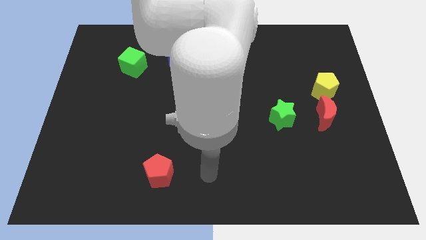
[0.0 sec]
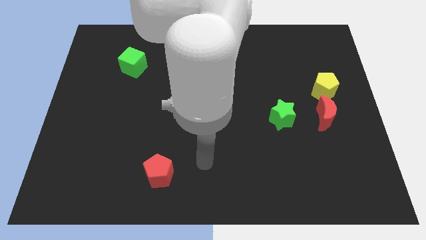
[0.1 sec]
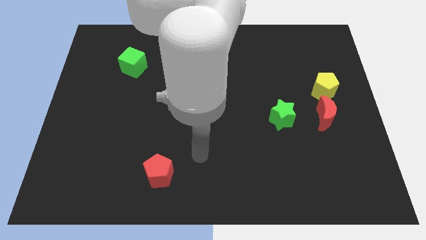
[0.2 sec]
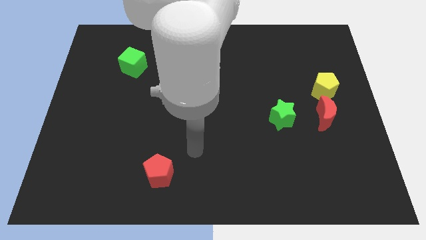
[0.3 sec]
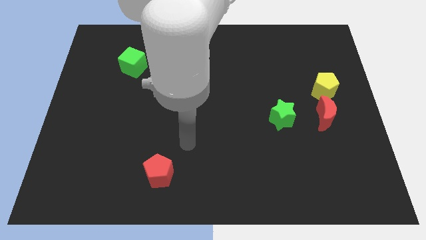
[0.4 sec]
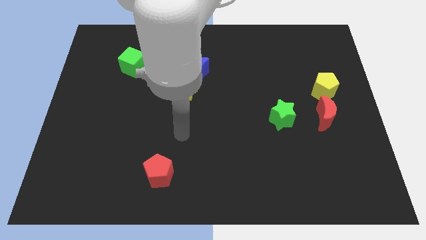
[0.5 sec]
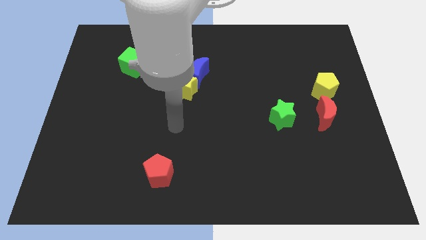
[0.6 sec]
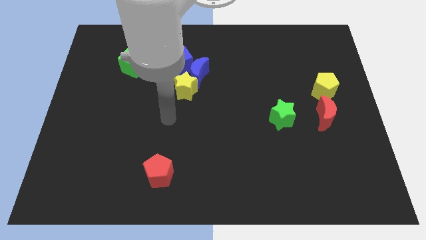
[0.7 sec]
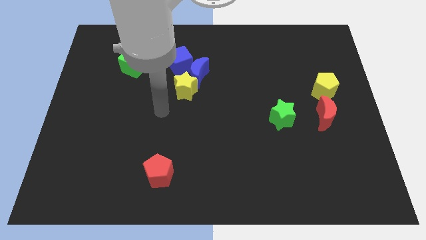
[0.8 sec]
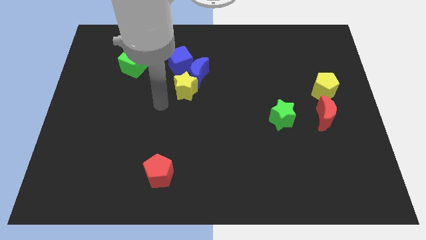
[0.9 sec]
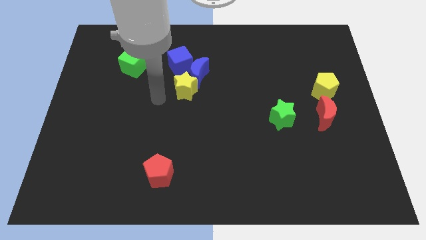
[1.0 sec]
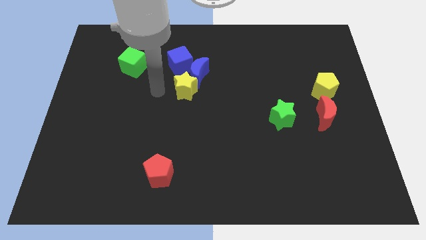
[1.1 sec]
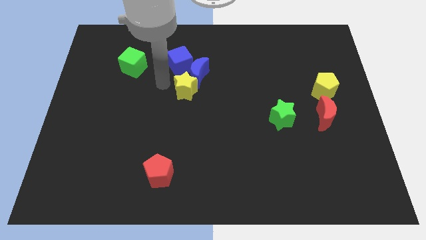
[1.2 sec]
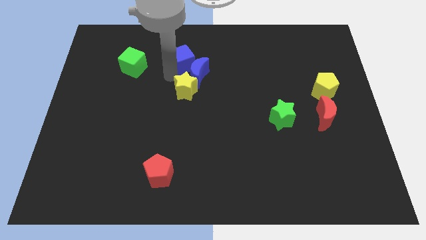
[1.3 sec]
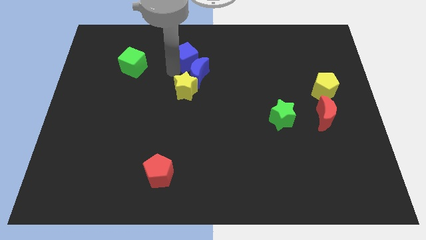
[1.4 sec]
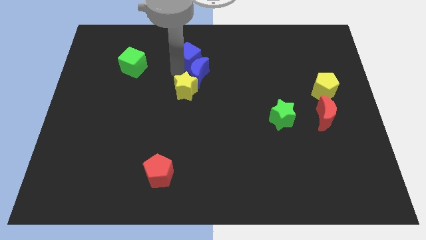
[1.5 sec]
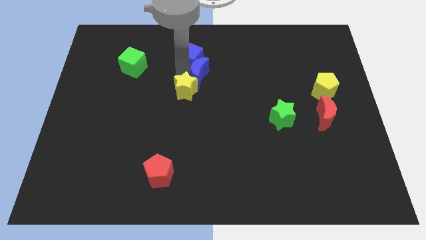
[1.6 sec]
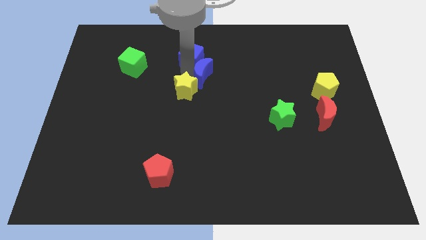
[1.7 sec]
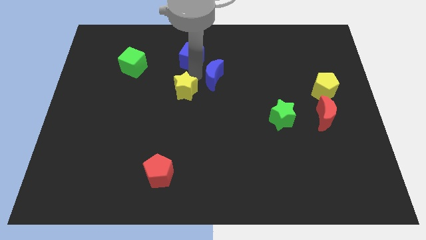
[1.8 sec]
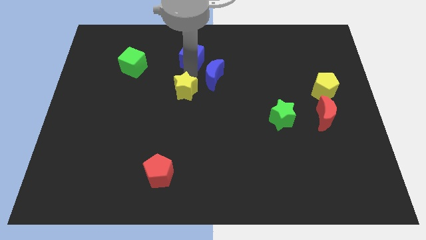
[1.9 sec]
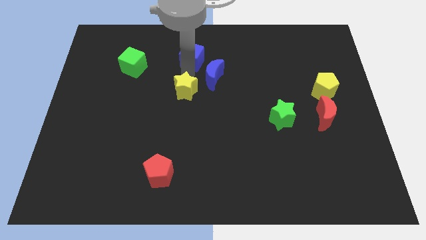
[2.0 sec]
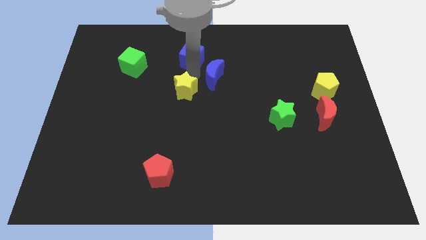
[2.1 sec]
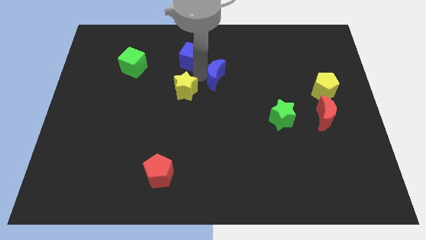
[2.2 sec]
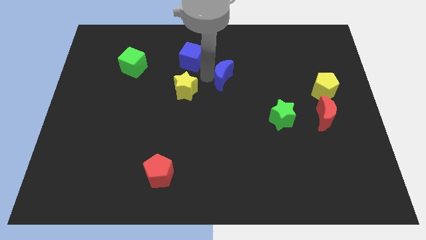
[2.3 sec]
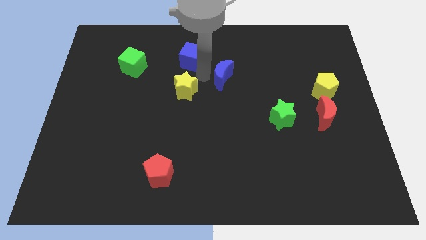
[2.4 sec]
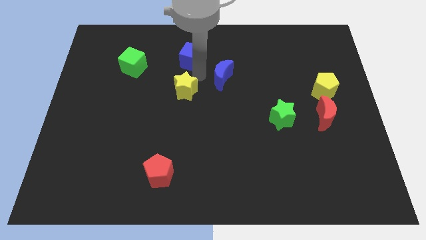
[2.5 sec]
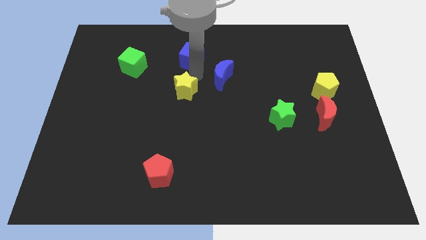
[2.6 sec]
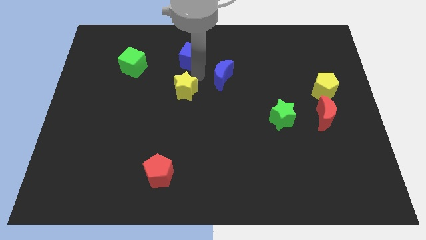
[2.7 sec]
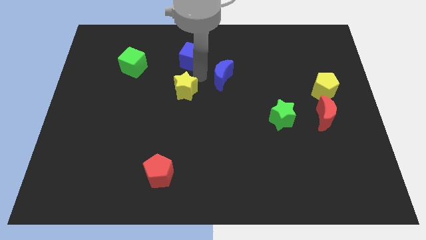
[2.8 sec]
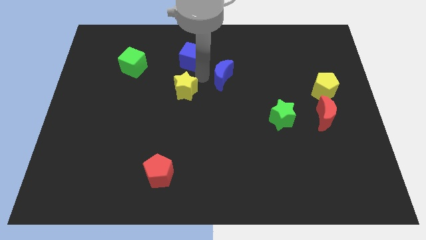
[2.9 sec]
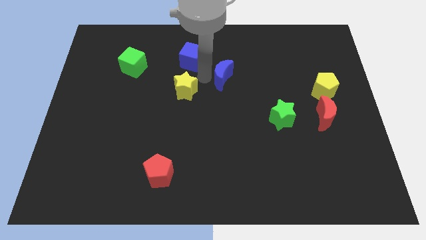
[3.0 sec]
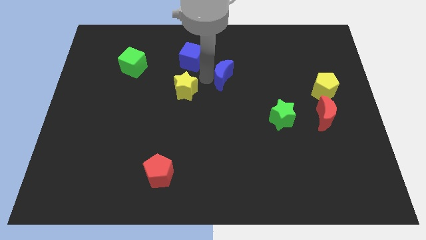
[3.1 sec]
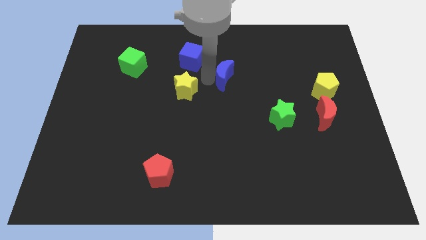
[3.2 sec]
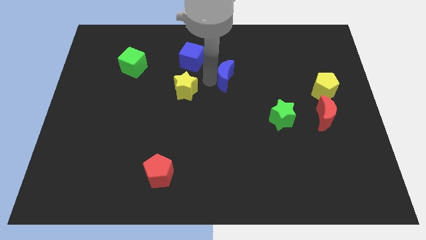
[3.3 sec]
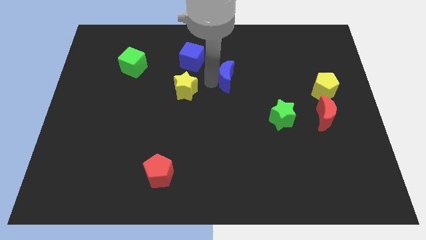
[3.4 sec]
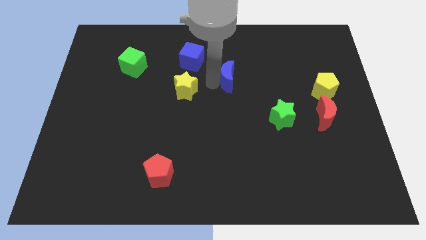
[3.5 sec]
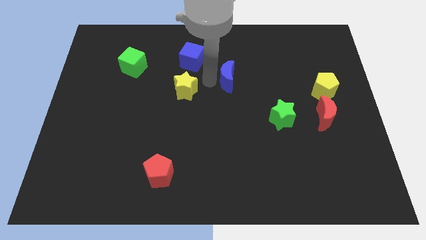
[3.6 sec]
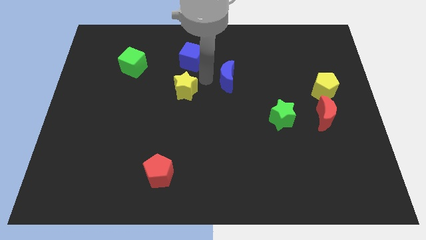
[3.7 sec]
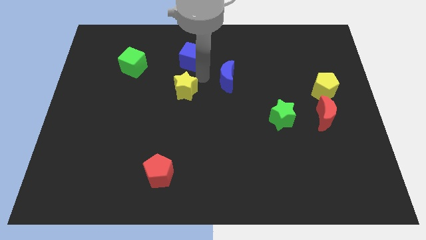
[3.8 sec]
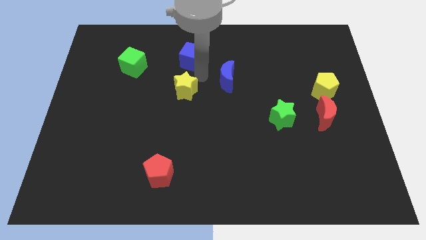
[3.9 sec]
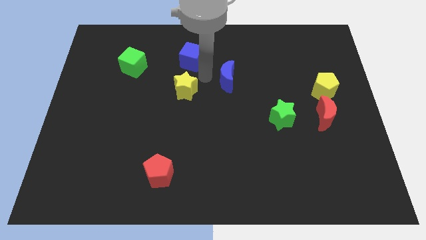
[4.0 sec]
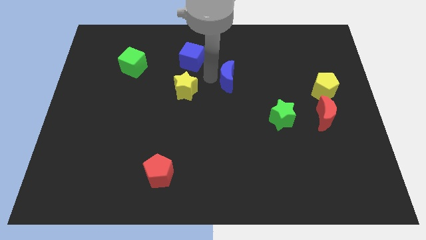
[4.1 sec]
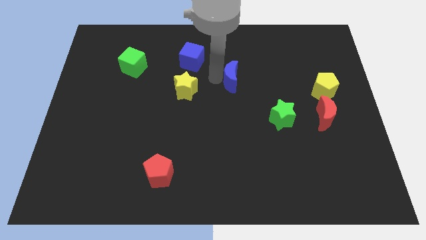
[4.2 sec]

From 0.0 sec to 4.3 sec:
move the blue moon away from the yellow star and blue cube

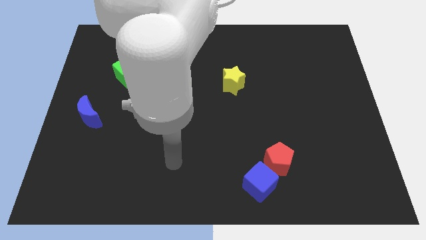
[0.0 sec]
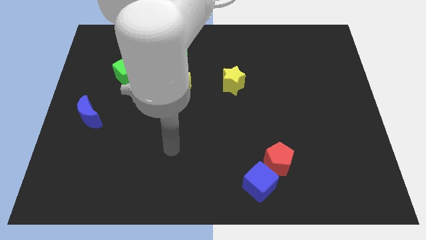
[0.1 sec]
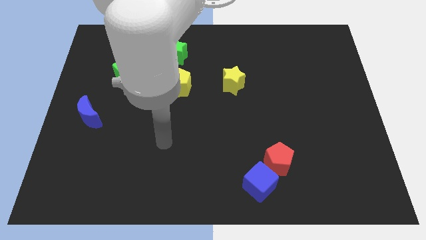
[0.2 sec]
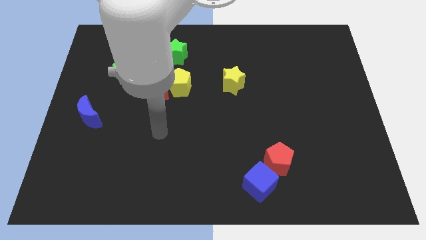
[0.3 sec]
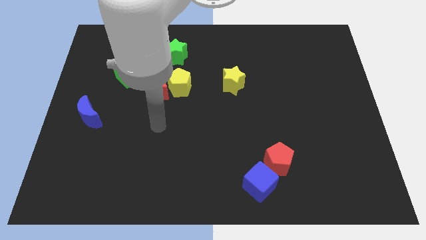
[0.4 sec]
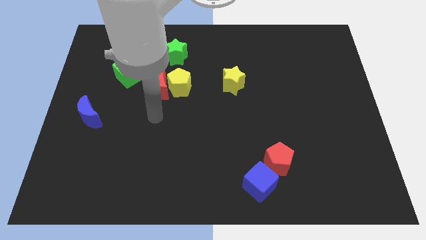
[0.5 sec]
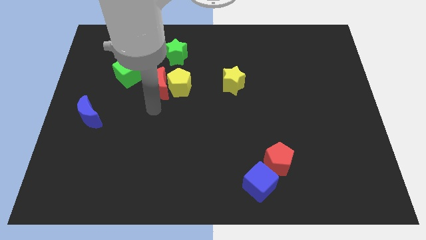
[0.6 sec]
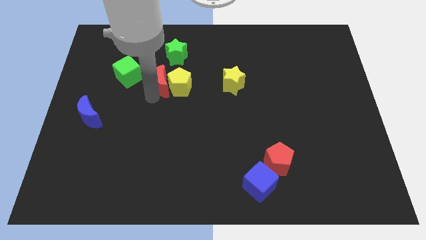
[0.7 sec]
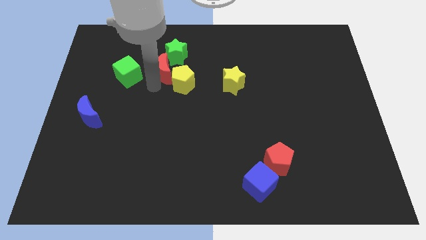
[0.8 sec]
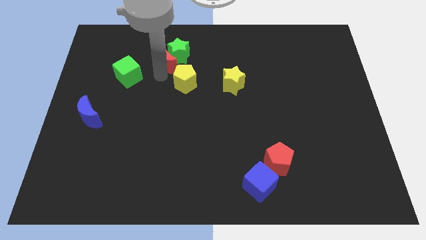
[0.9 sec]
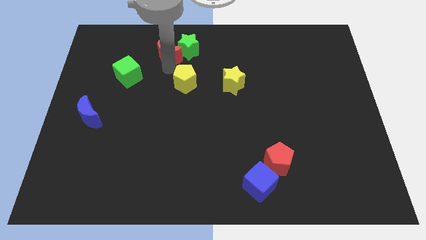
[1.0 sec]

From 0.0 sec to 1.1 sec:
move the yellow pentagon away from the red moon

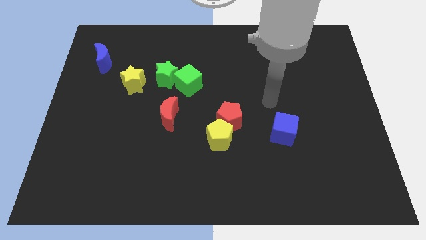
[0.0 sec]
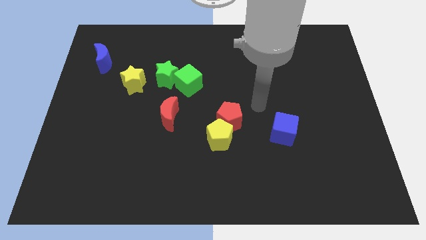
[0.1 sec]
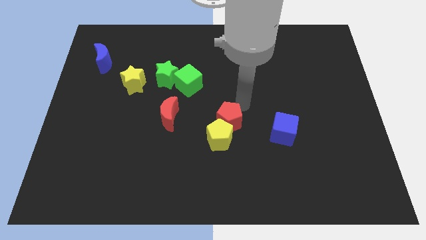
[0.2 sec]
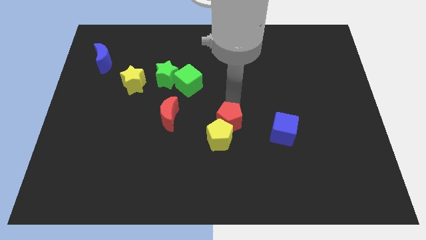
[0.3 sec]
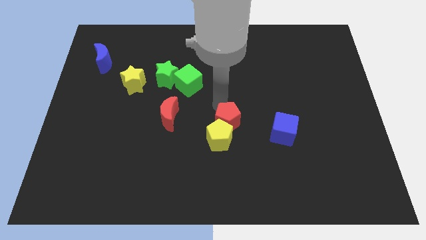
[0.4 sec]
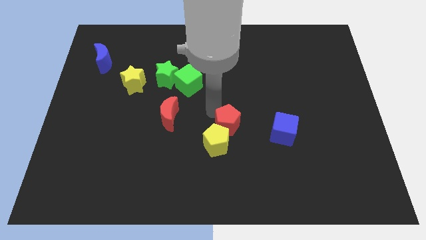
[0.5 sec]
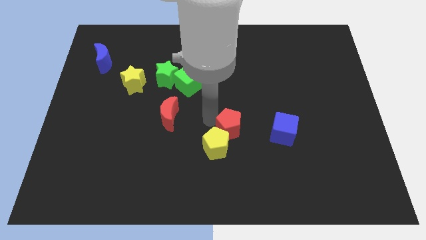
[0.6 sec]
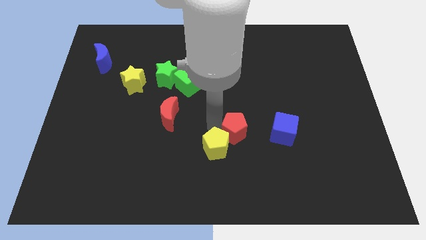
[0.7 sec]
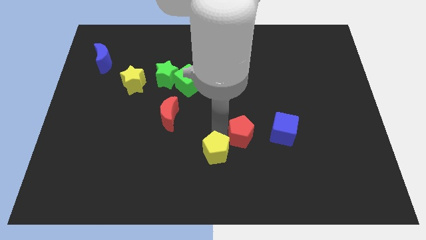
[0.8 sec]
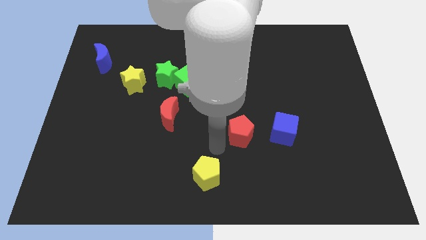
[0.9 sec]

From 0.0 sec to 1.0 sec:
separate the red pentagon from the yellow pentagon

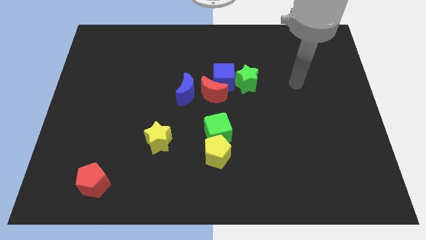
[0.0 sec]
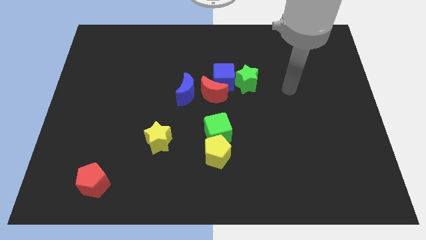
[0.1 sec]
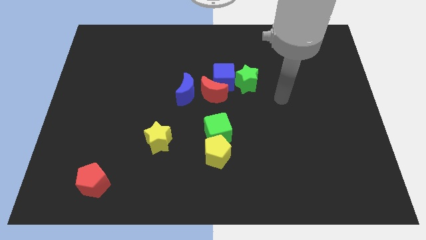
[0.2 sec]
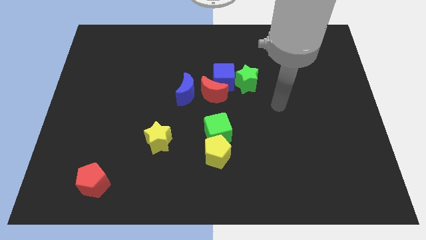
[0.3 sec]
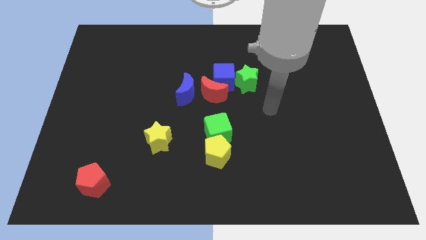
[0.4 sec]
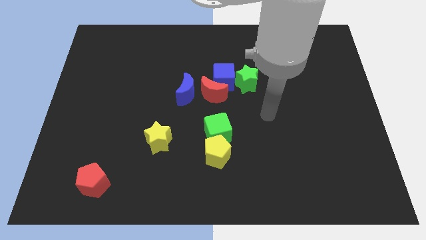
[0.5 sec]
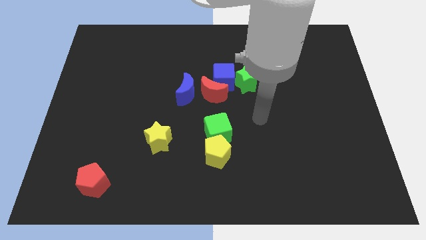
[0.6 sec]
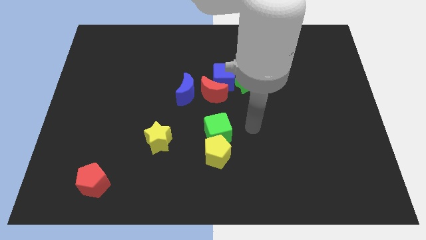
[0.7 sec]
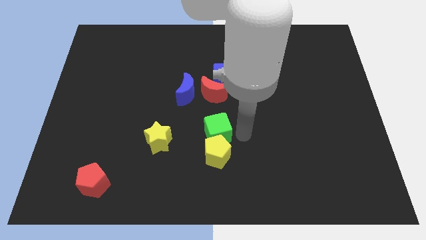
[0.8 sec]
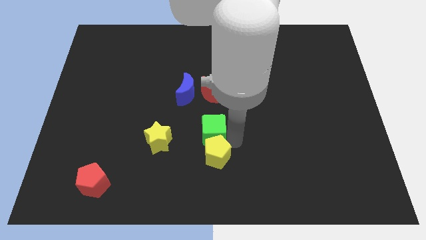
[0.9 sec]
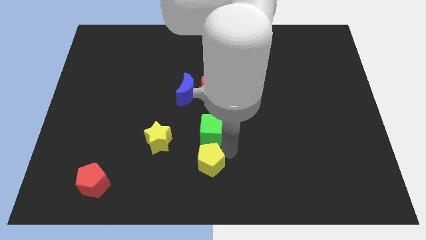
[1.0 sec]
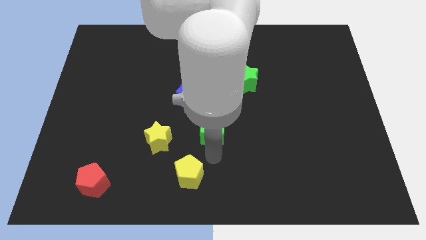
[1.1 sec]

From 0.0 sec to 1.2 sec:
separate the green cube from the yellow pentagon

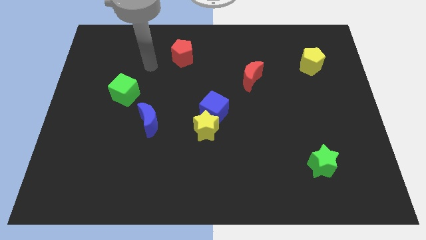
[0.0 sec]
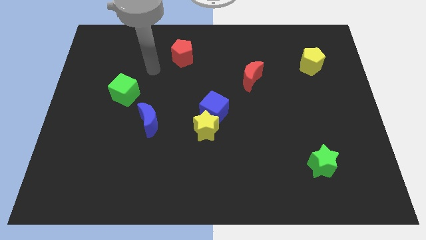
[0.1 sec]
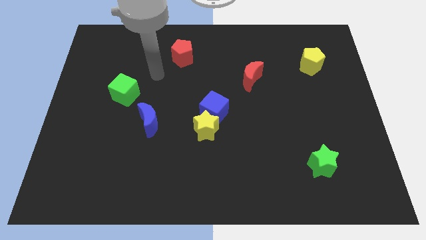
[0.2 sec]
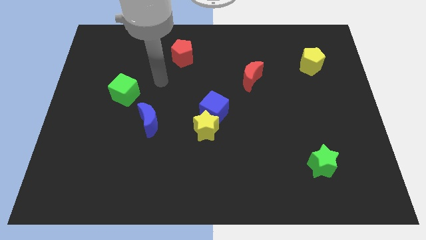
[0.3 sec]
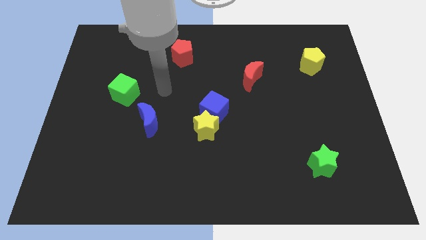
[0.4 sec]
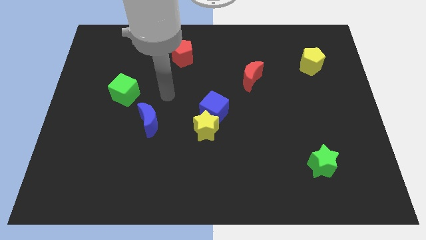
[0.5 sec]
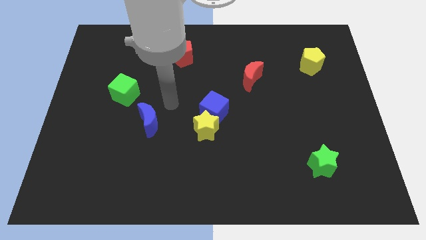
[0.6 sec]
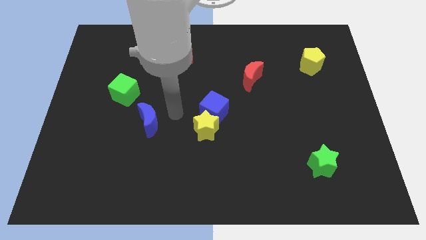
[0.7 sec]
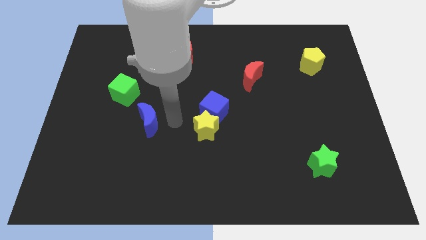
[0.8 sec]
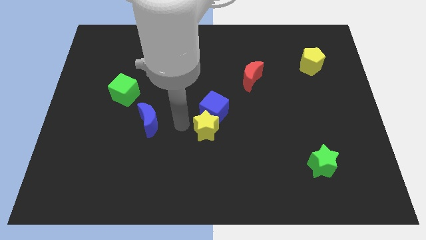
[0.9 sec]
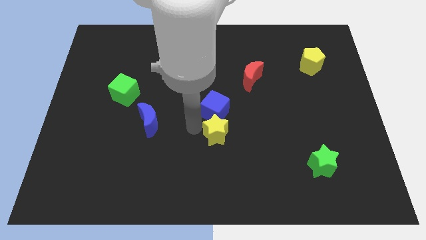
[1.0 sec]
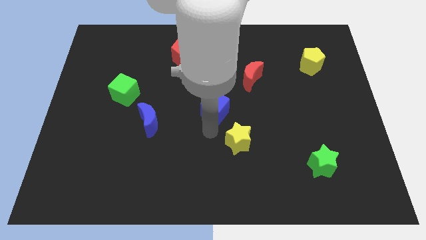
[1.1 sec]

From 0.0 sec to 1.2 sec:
move the blue cube away from the yellow star

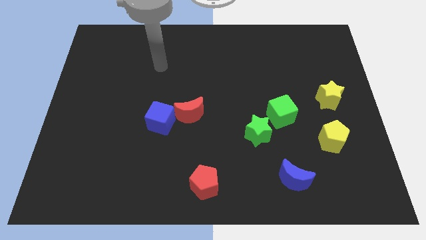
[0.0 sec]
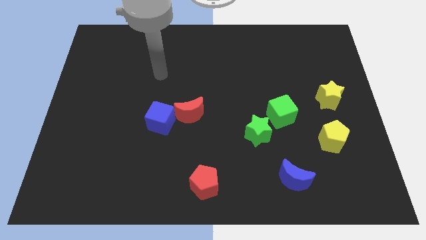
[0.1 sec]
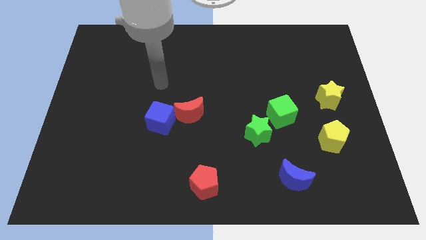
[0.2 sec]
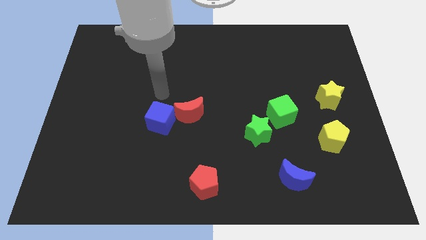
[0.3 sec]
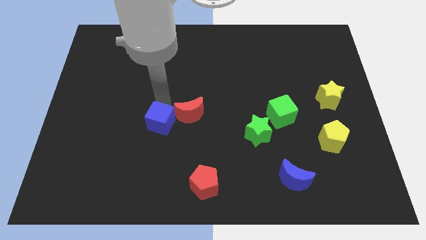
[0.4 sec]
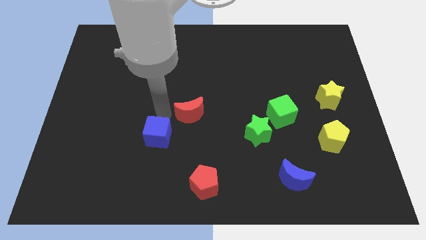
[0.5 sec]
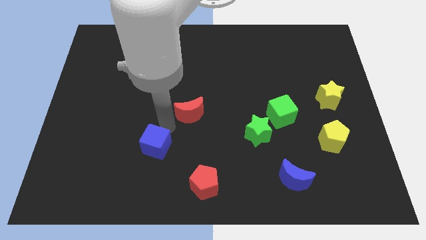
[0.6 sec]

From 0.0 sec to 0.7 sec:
pull the red moon apart from the blue cube
